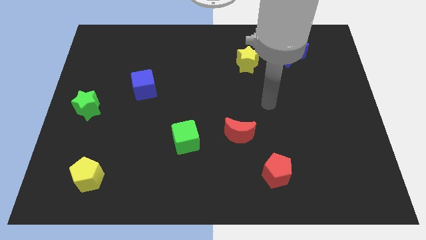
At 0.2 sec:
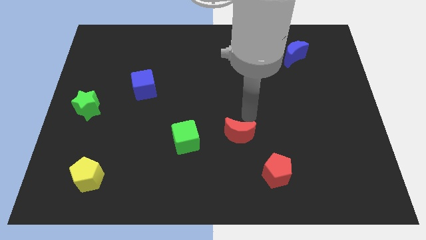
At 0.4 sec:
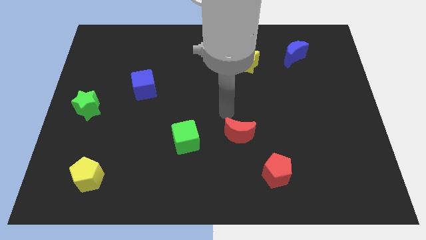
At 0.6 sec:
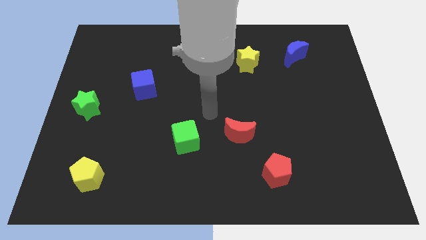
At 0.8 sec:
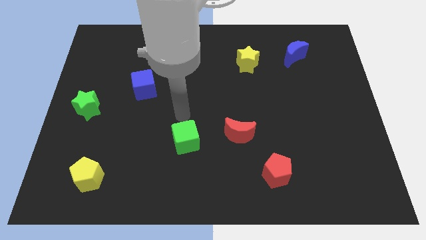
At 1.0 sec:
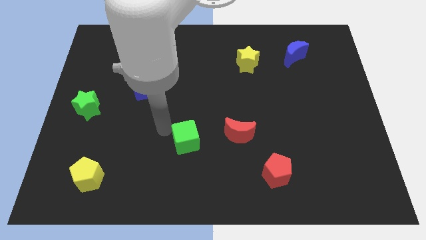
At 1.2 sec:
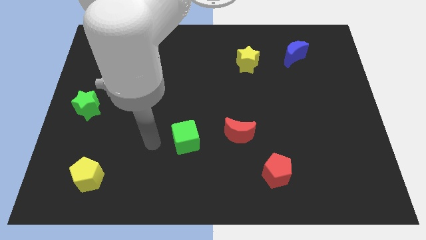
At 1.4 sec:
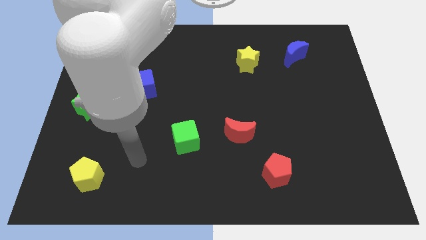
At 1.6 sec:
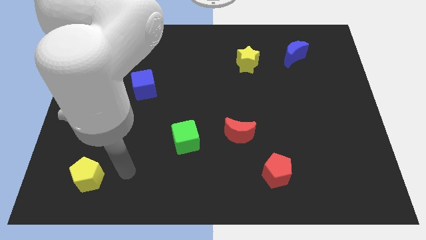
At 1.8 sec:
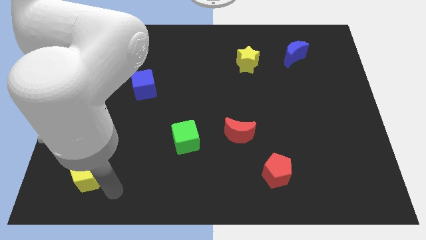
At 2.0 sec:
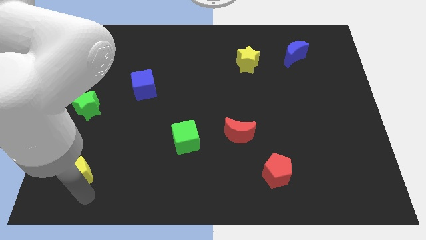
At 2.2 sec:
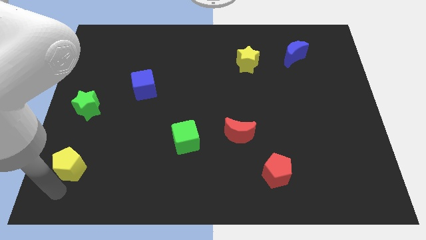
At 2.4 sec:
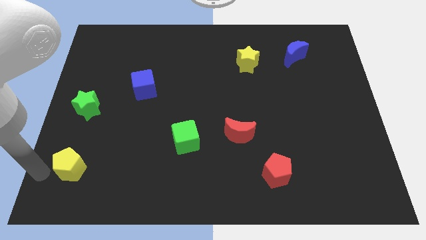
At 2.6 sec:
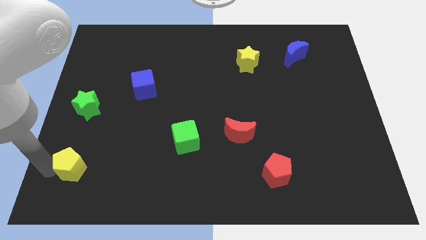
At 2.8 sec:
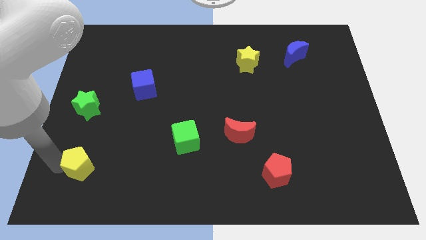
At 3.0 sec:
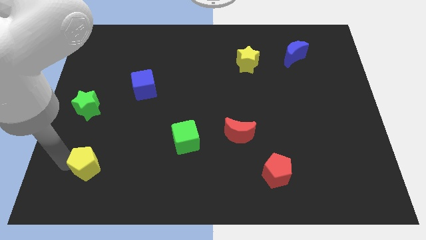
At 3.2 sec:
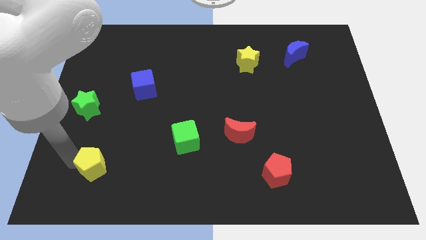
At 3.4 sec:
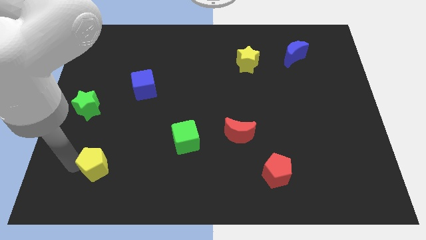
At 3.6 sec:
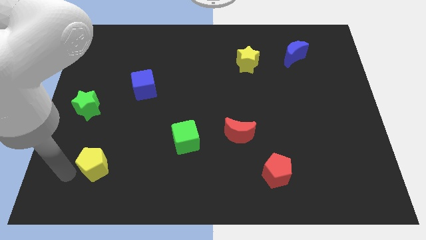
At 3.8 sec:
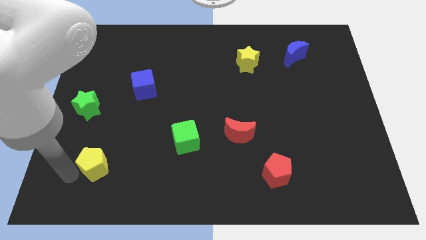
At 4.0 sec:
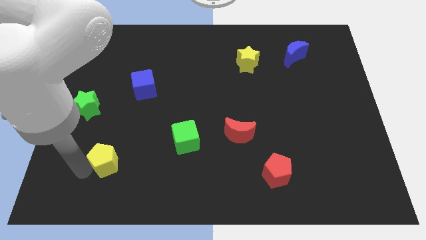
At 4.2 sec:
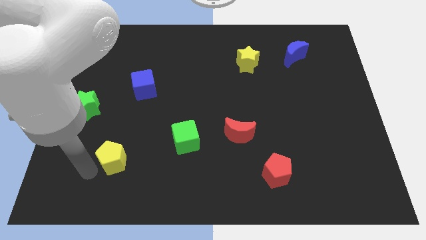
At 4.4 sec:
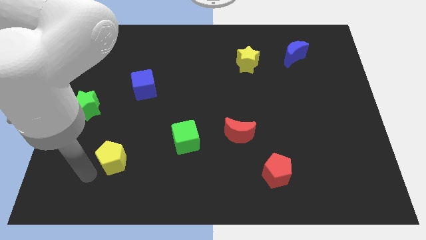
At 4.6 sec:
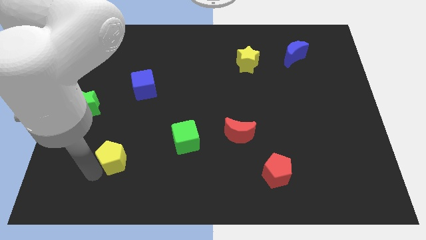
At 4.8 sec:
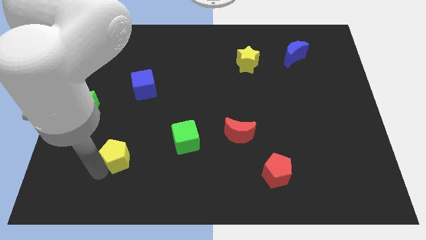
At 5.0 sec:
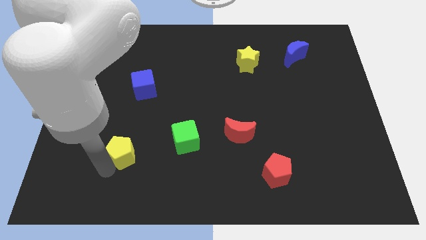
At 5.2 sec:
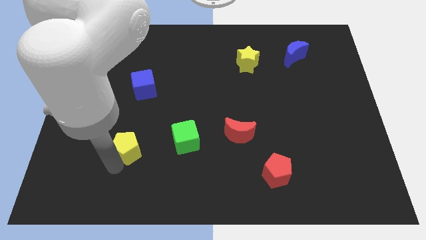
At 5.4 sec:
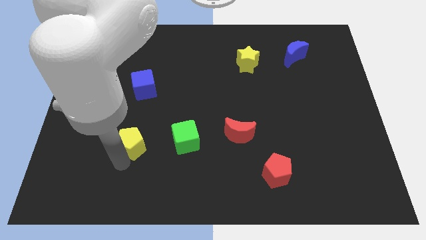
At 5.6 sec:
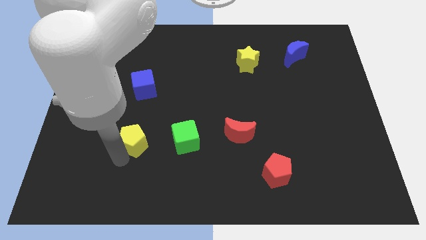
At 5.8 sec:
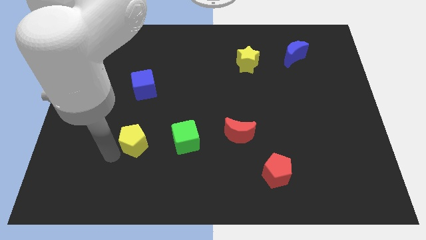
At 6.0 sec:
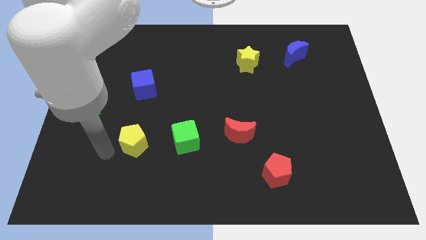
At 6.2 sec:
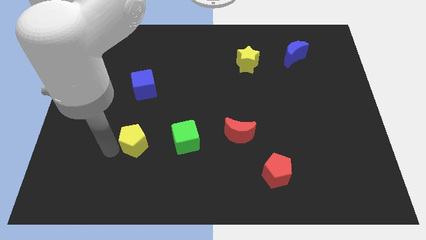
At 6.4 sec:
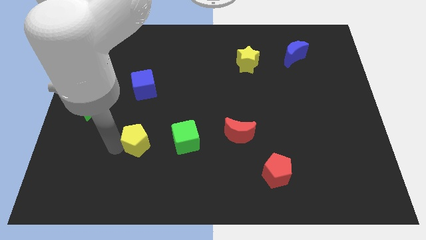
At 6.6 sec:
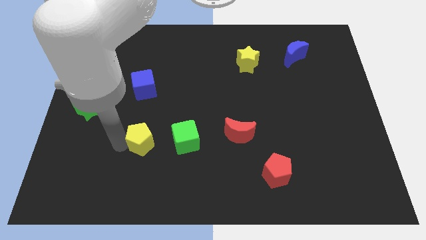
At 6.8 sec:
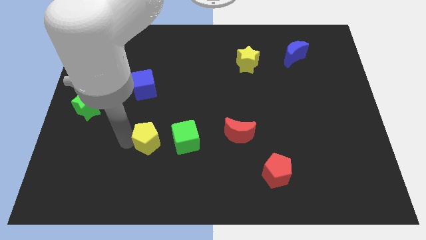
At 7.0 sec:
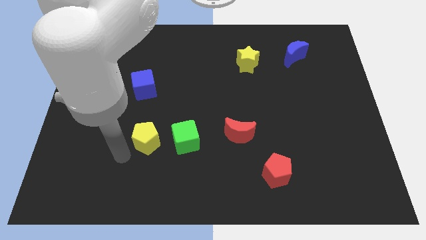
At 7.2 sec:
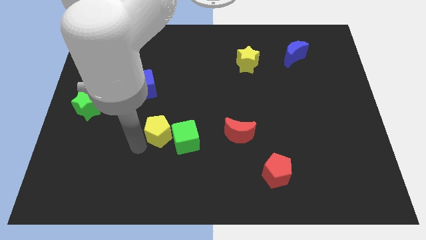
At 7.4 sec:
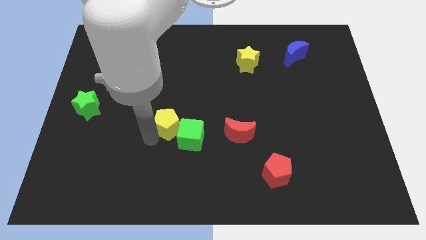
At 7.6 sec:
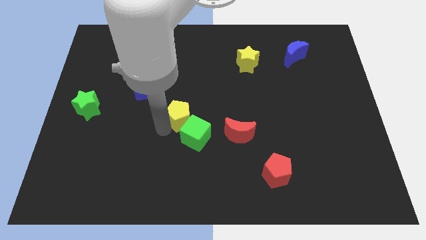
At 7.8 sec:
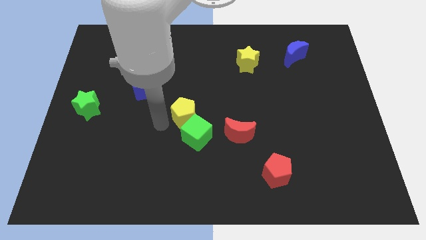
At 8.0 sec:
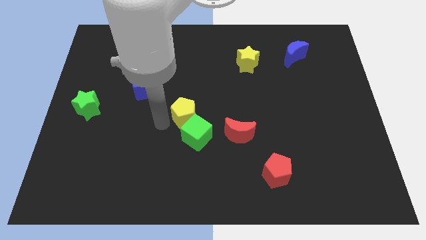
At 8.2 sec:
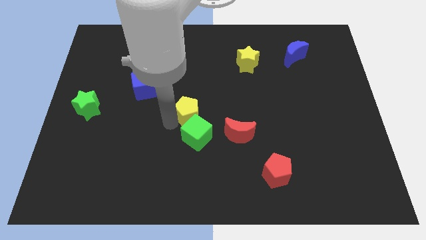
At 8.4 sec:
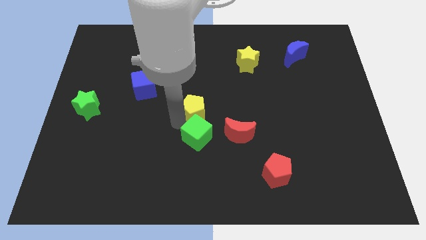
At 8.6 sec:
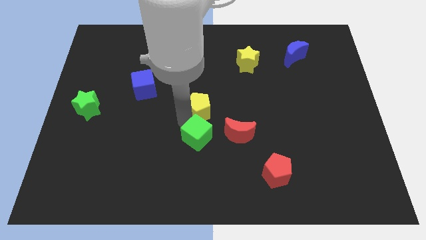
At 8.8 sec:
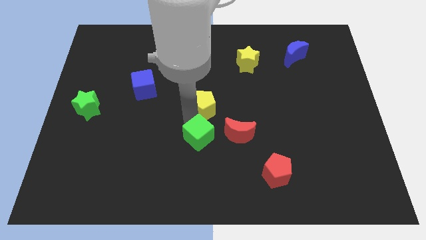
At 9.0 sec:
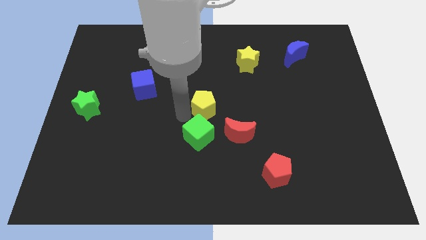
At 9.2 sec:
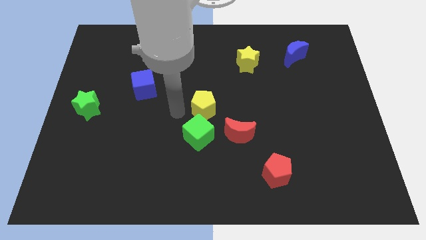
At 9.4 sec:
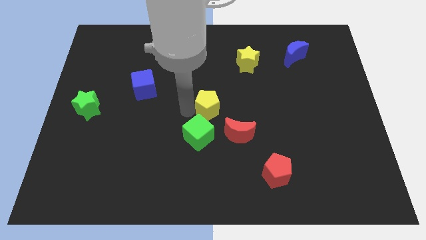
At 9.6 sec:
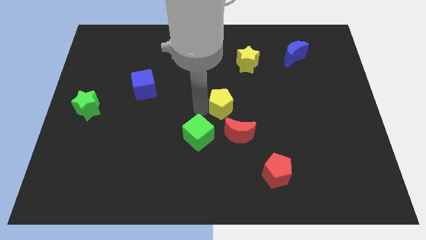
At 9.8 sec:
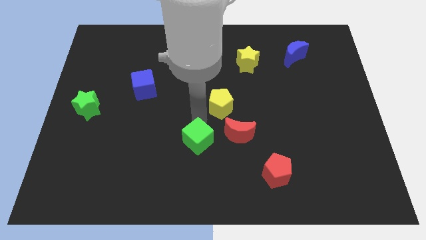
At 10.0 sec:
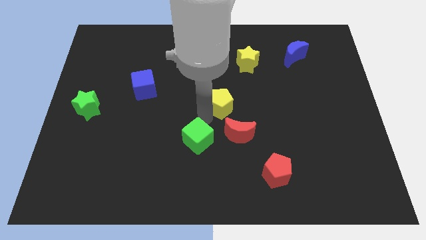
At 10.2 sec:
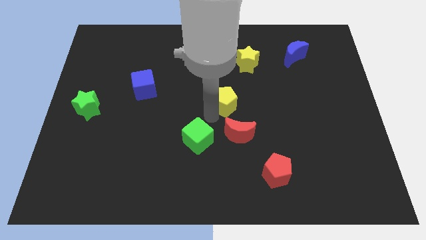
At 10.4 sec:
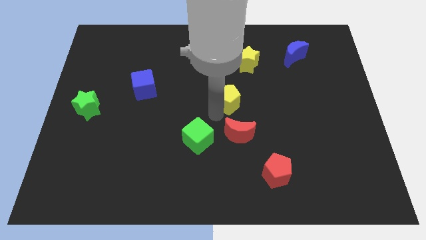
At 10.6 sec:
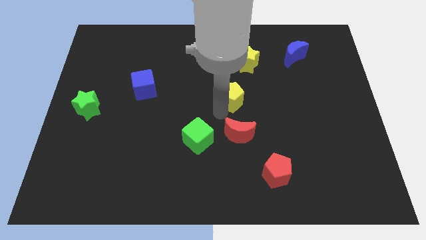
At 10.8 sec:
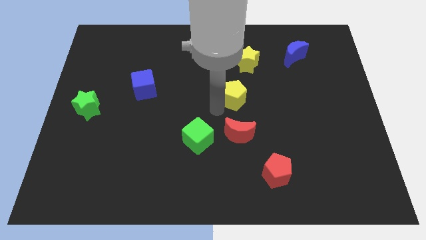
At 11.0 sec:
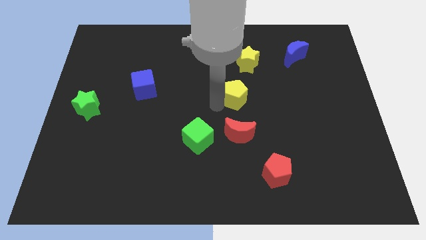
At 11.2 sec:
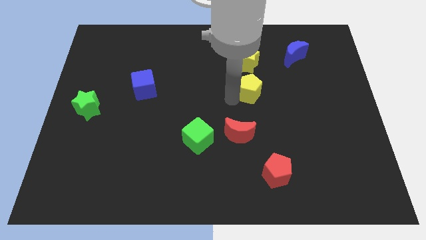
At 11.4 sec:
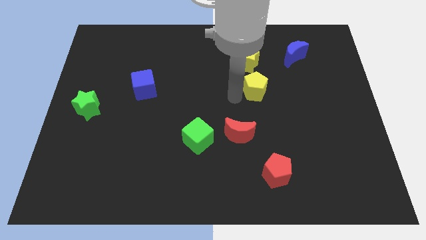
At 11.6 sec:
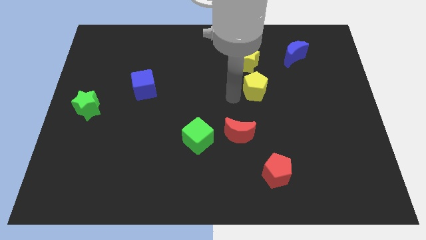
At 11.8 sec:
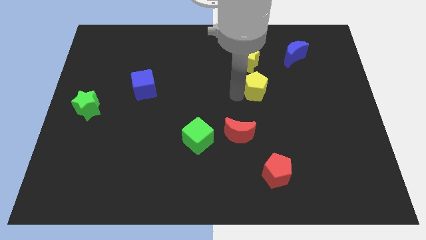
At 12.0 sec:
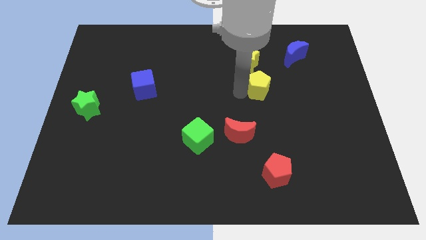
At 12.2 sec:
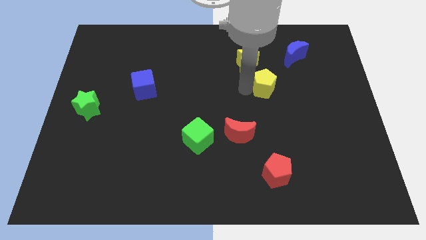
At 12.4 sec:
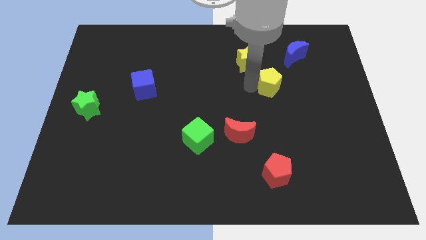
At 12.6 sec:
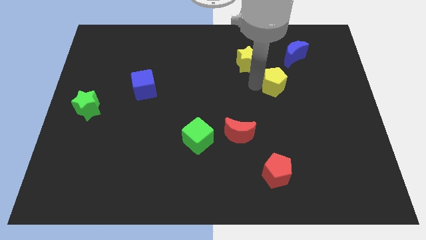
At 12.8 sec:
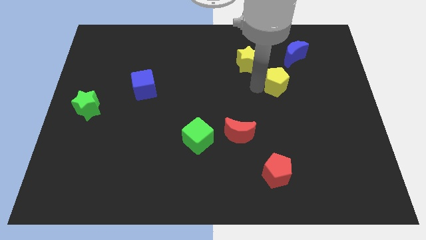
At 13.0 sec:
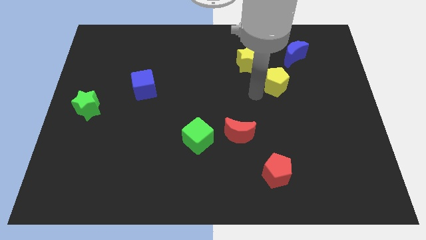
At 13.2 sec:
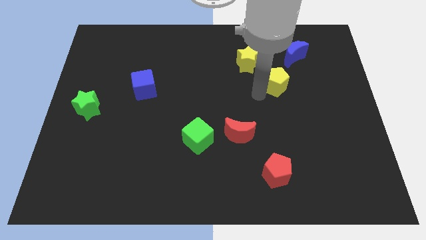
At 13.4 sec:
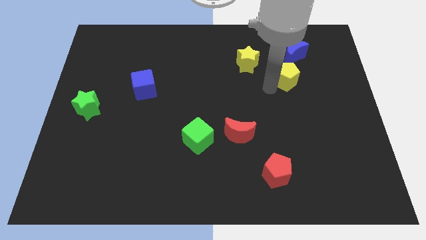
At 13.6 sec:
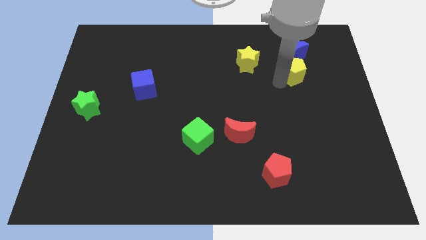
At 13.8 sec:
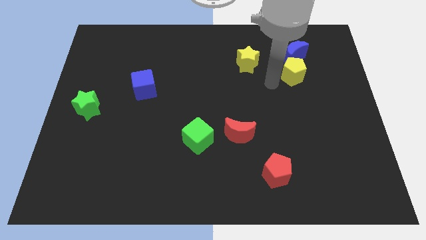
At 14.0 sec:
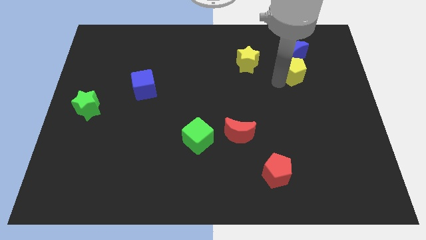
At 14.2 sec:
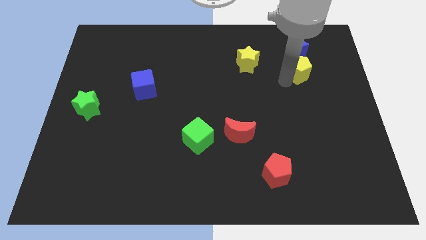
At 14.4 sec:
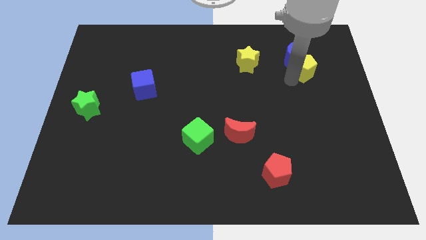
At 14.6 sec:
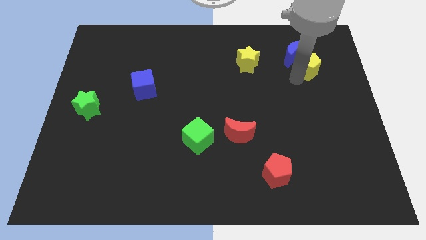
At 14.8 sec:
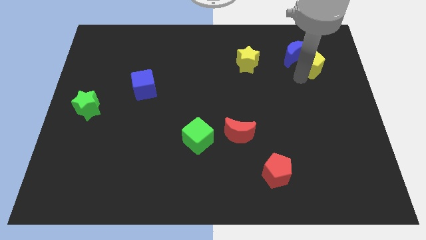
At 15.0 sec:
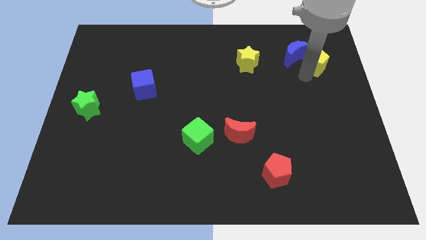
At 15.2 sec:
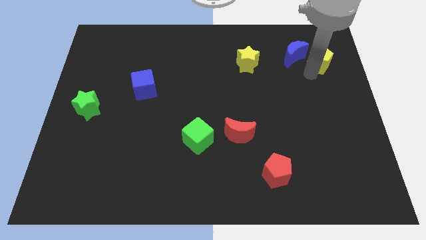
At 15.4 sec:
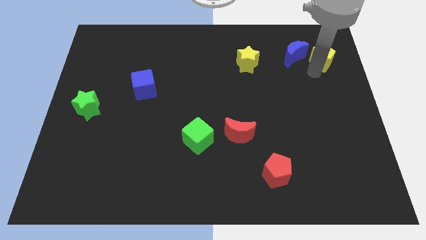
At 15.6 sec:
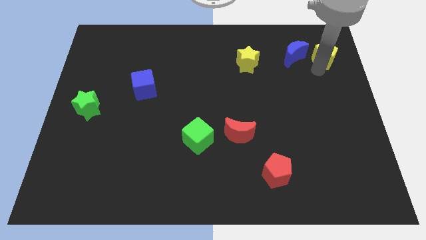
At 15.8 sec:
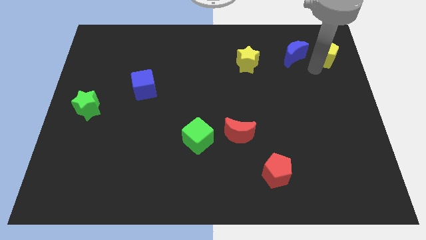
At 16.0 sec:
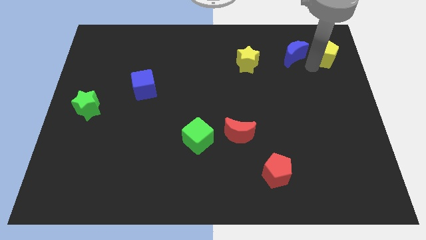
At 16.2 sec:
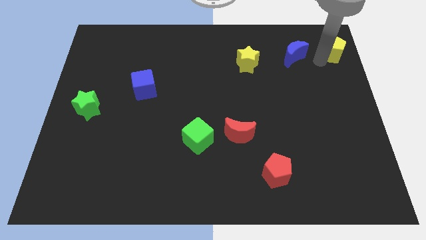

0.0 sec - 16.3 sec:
slide the yellow pentagon to the top right
